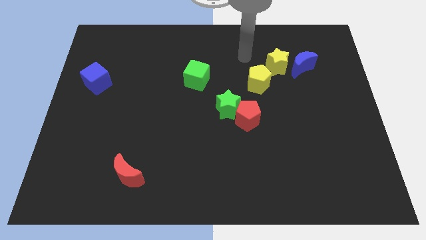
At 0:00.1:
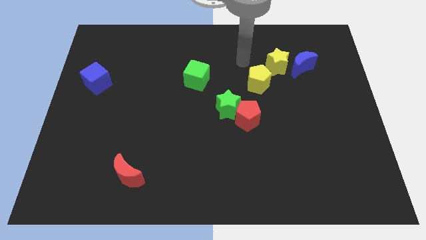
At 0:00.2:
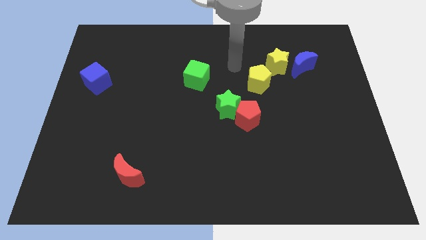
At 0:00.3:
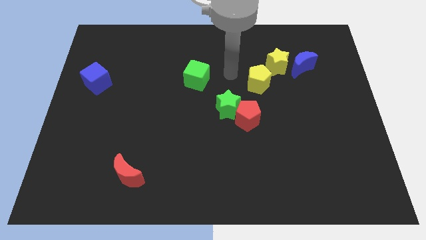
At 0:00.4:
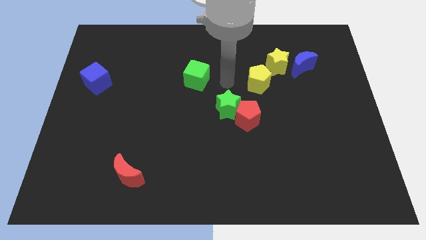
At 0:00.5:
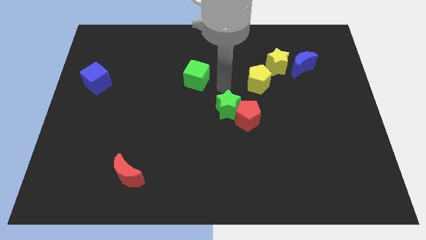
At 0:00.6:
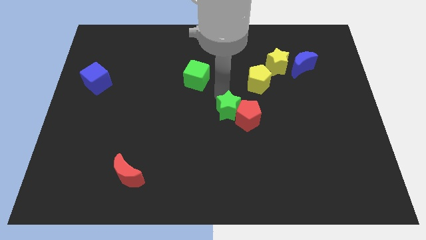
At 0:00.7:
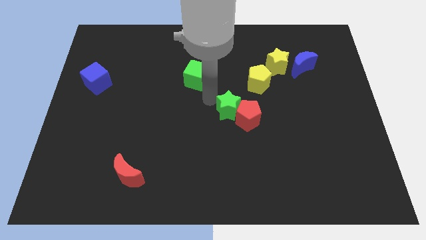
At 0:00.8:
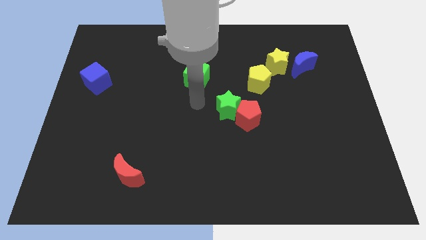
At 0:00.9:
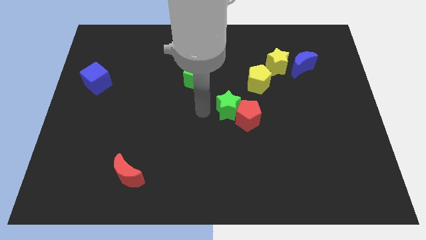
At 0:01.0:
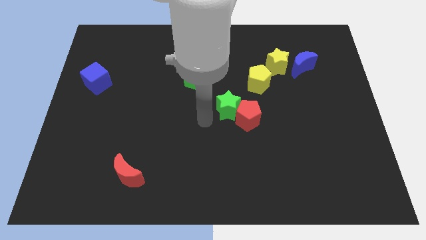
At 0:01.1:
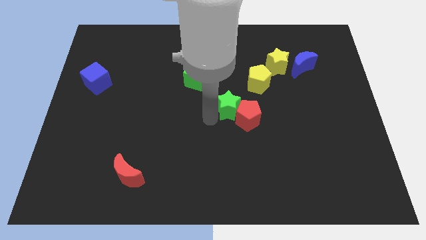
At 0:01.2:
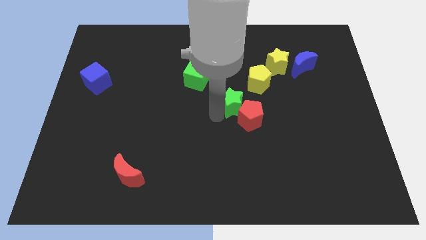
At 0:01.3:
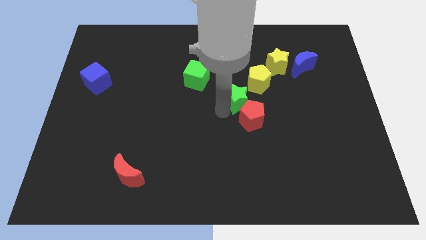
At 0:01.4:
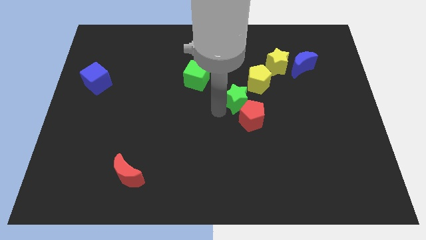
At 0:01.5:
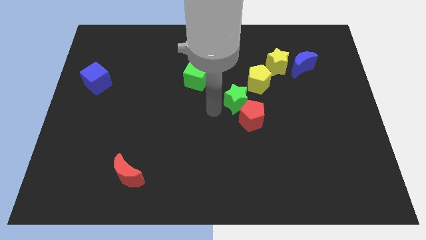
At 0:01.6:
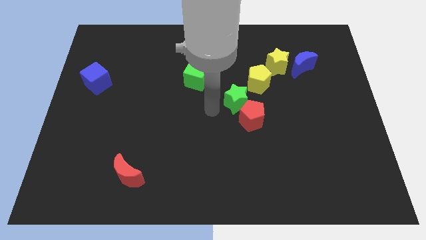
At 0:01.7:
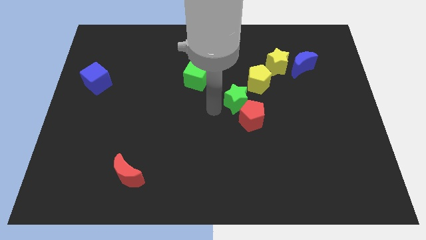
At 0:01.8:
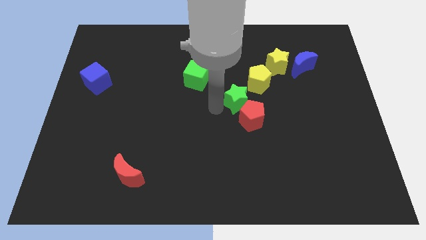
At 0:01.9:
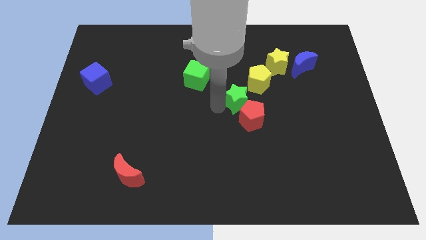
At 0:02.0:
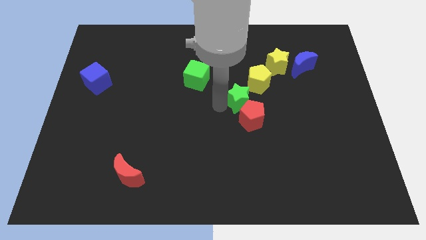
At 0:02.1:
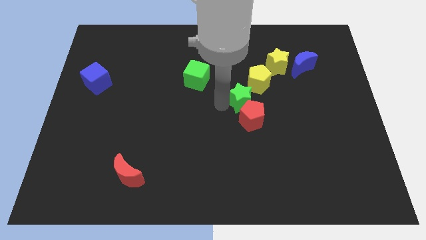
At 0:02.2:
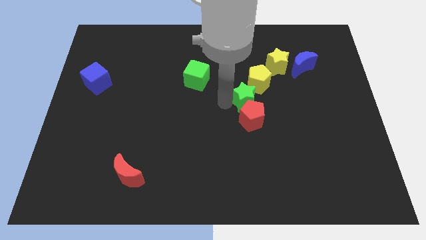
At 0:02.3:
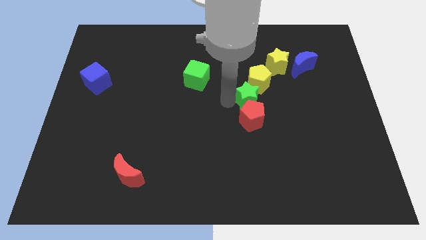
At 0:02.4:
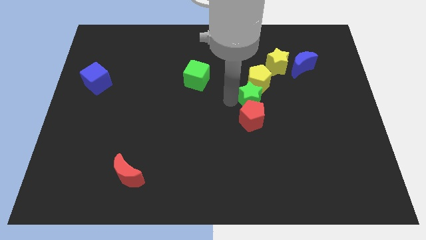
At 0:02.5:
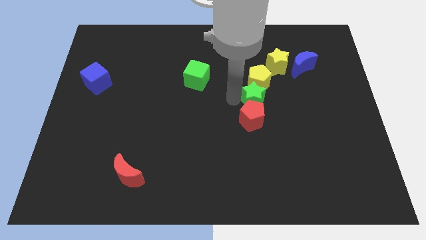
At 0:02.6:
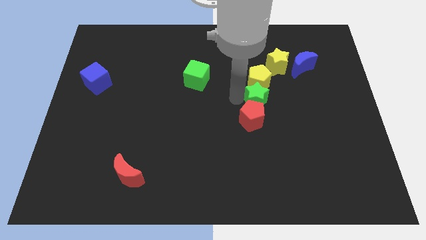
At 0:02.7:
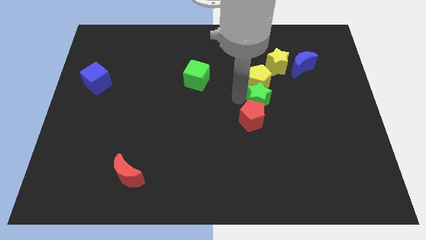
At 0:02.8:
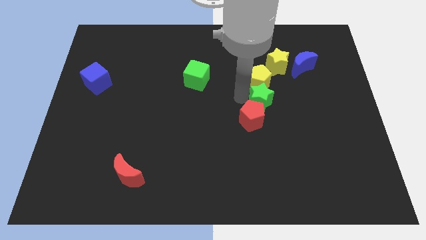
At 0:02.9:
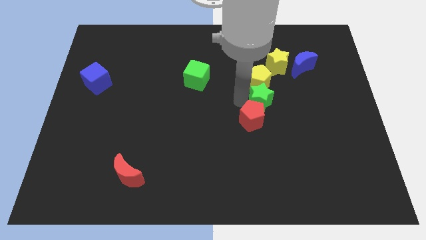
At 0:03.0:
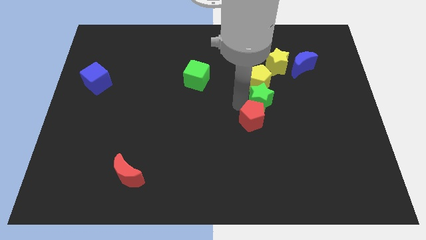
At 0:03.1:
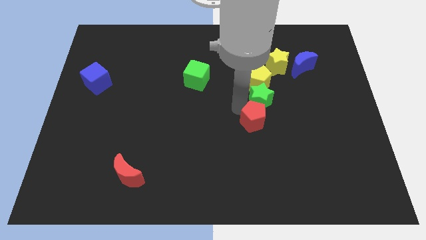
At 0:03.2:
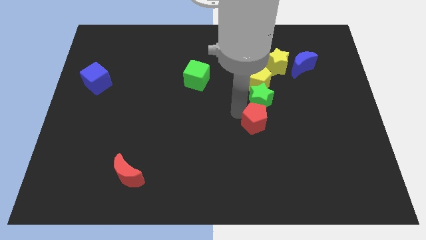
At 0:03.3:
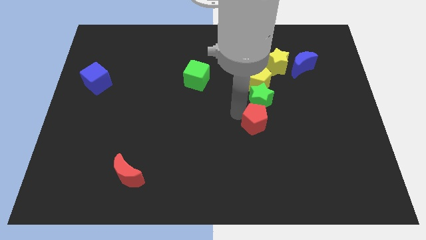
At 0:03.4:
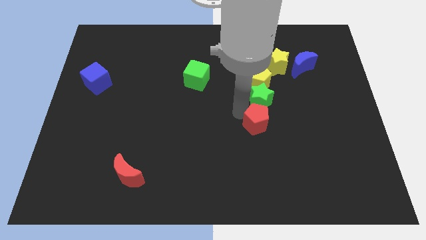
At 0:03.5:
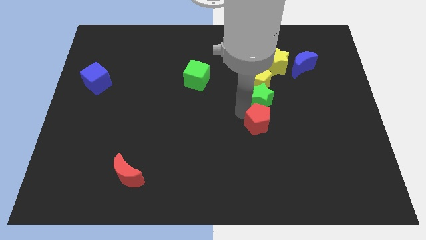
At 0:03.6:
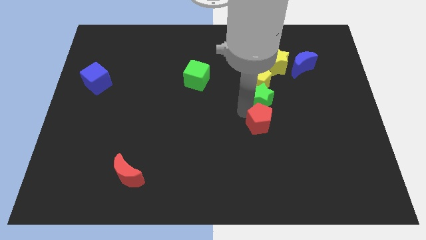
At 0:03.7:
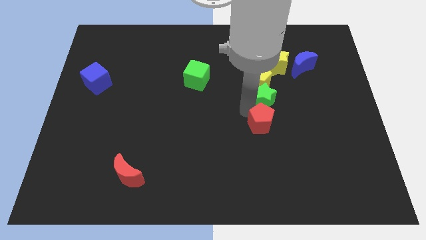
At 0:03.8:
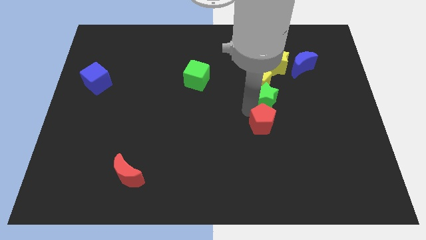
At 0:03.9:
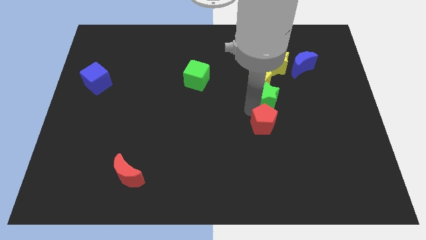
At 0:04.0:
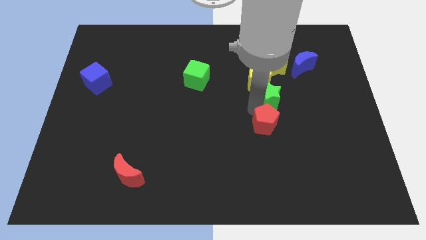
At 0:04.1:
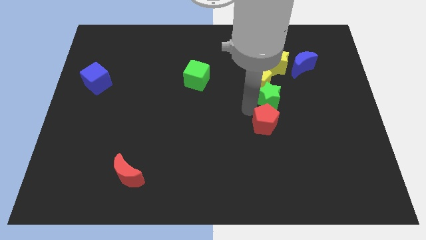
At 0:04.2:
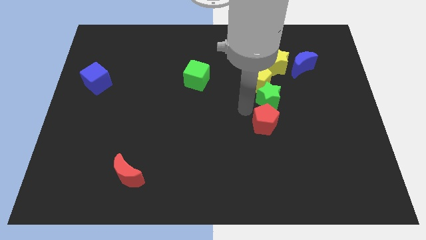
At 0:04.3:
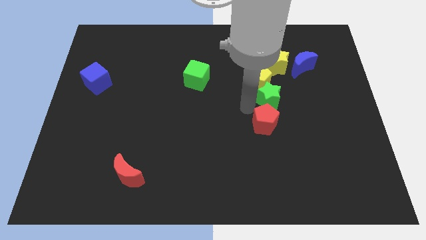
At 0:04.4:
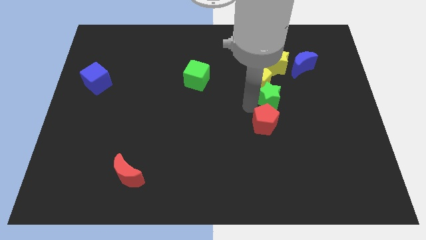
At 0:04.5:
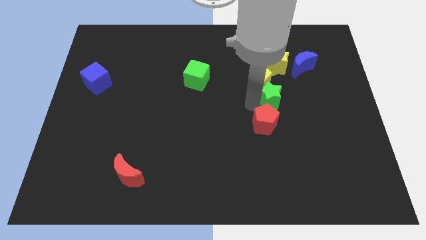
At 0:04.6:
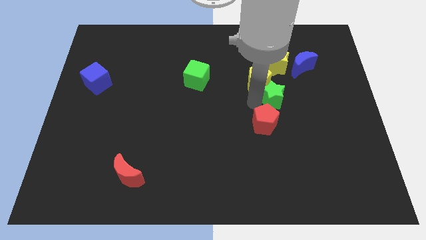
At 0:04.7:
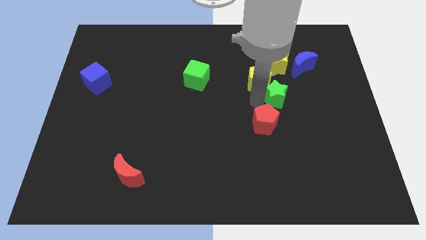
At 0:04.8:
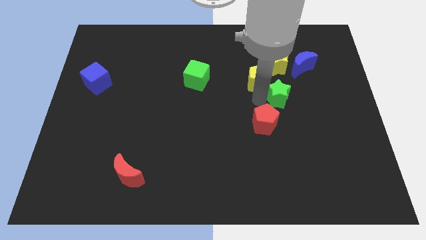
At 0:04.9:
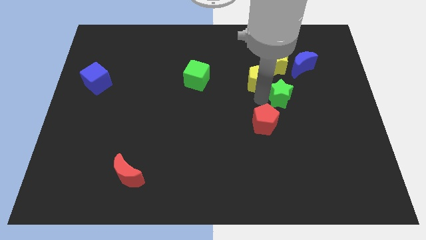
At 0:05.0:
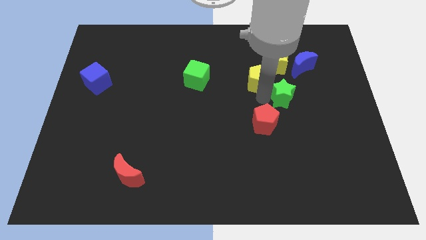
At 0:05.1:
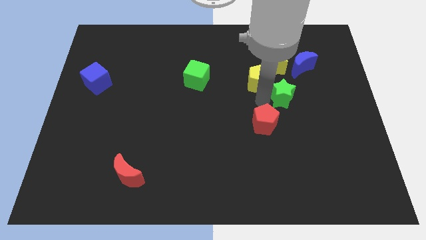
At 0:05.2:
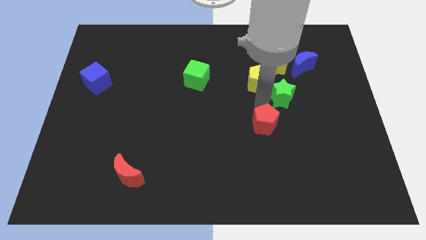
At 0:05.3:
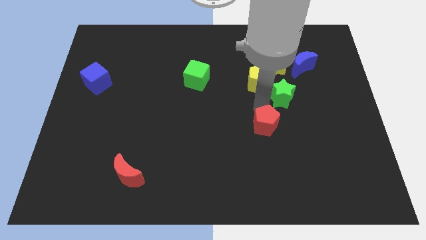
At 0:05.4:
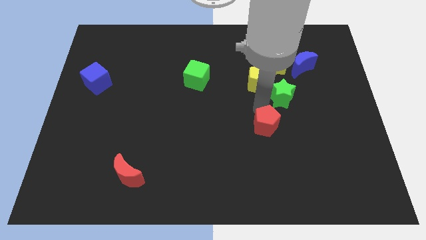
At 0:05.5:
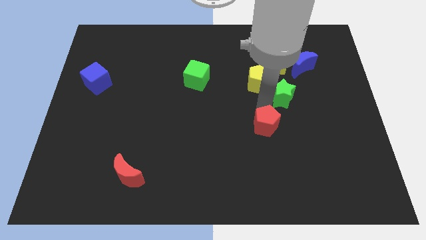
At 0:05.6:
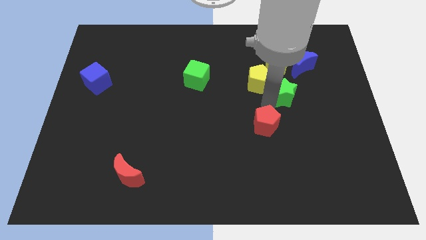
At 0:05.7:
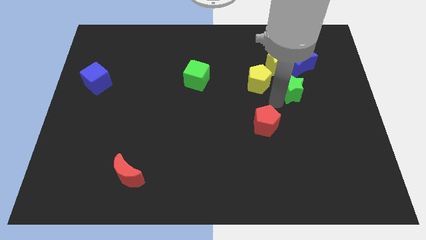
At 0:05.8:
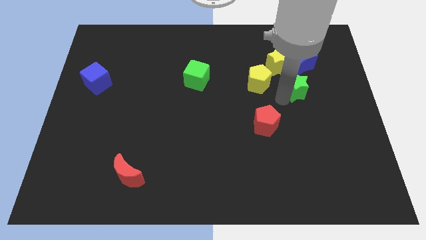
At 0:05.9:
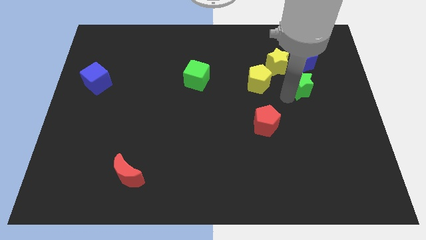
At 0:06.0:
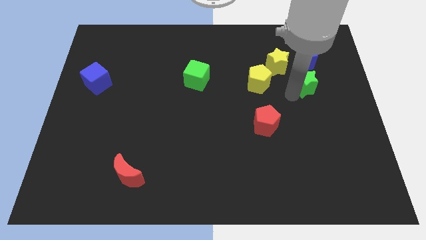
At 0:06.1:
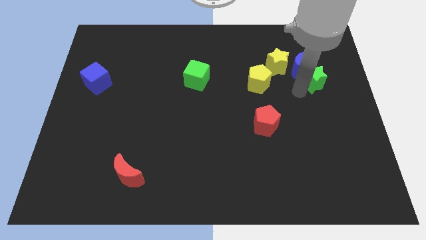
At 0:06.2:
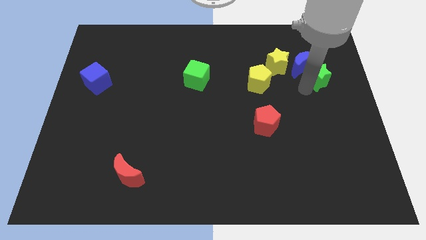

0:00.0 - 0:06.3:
push the green star just right of the yellow star

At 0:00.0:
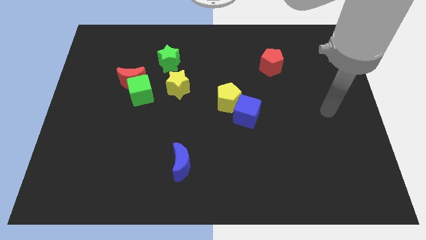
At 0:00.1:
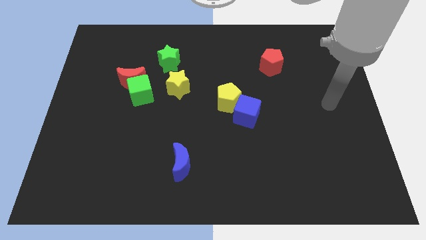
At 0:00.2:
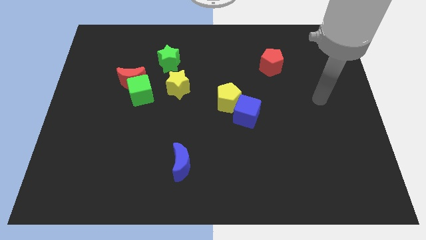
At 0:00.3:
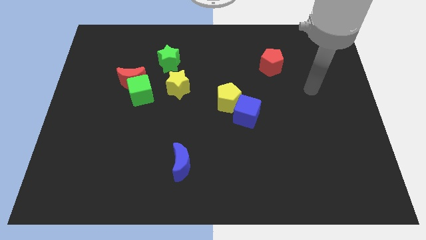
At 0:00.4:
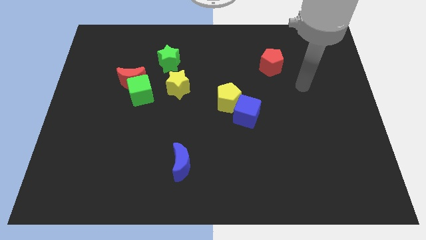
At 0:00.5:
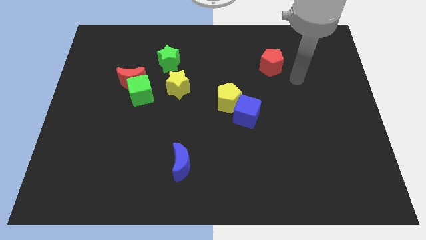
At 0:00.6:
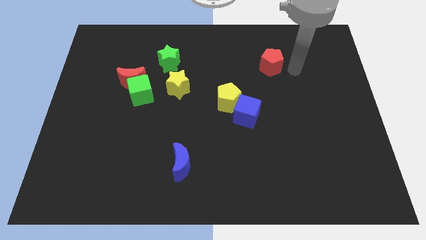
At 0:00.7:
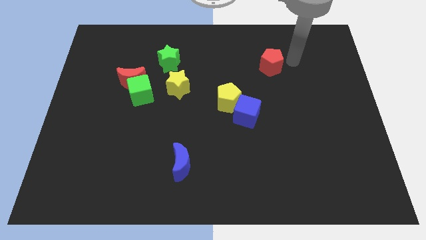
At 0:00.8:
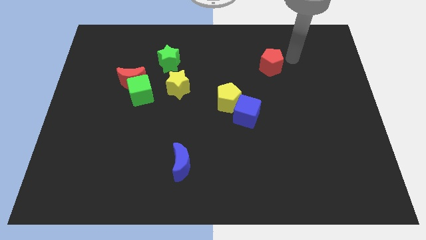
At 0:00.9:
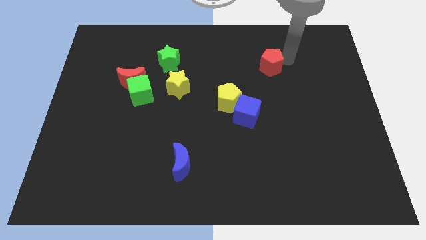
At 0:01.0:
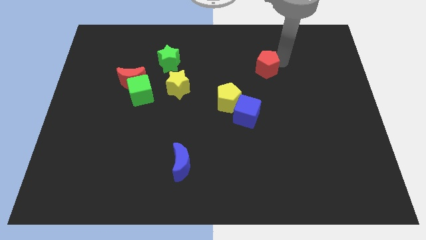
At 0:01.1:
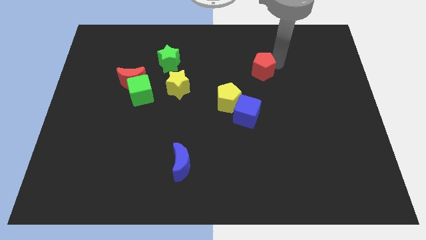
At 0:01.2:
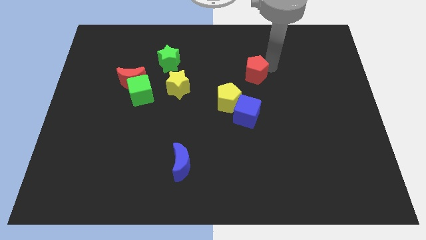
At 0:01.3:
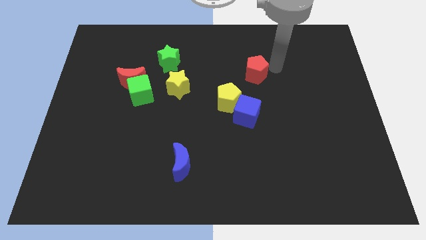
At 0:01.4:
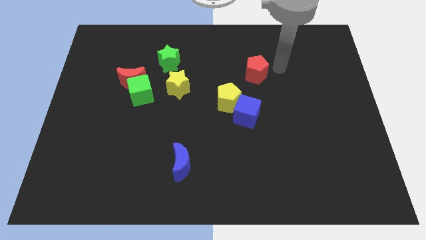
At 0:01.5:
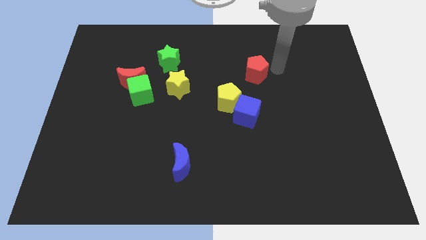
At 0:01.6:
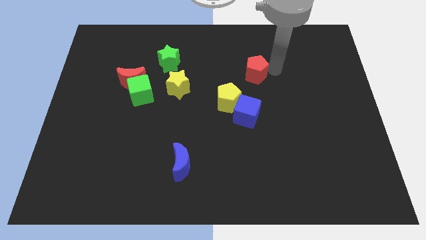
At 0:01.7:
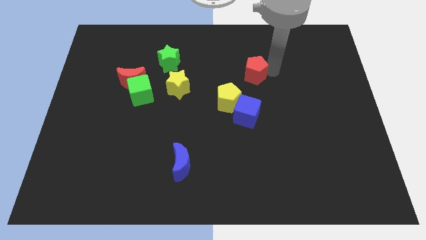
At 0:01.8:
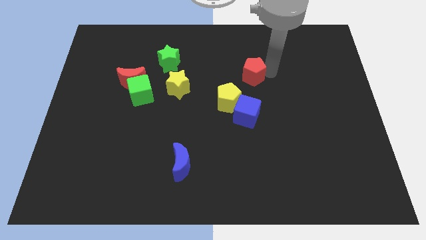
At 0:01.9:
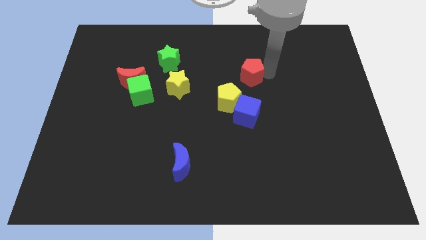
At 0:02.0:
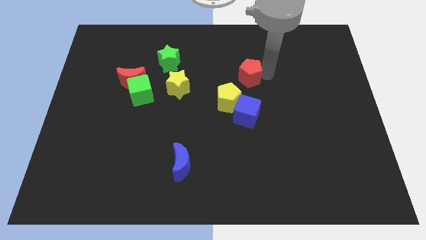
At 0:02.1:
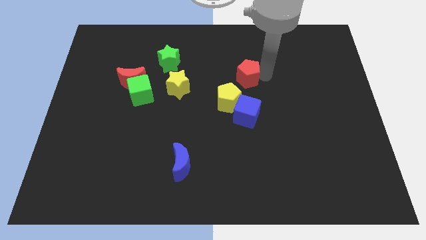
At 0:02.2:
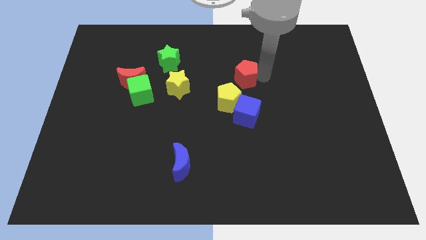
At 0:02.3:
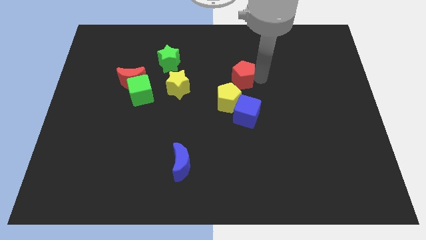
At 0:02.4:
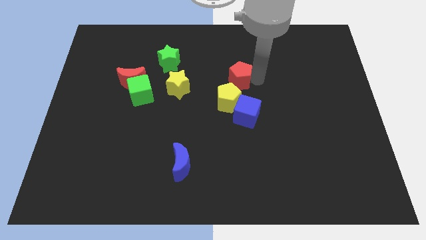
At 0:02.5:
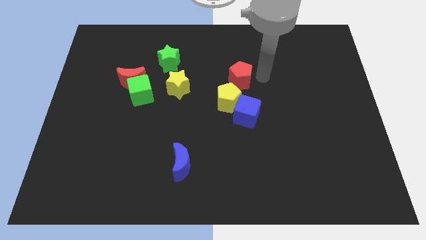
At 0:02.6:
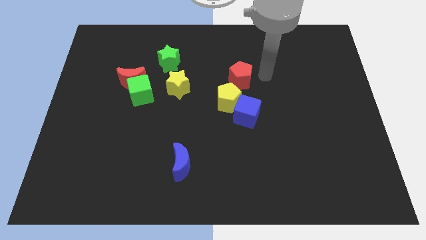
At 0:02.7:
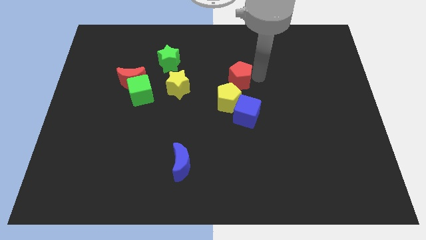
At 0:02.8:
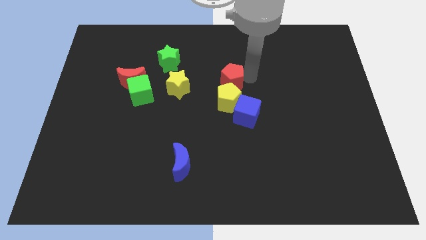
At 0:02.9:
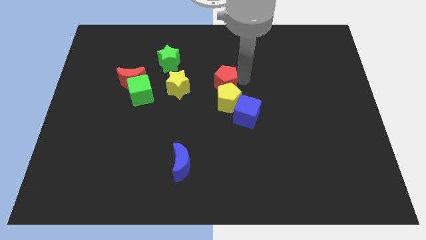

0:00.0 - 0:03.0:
slide the red pentagon diagonally up and to the left of the yellow pentagon
